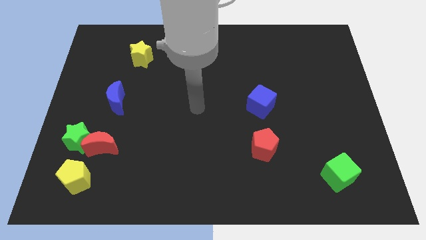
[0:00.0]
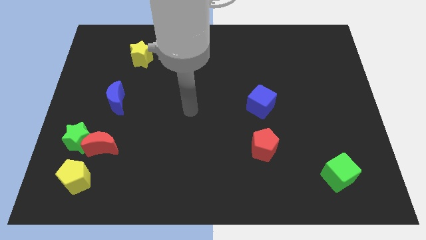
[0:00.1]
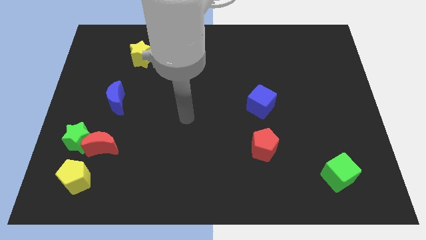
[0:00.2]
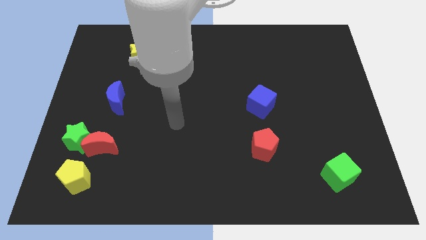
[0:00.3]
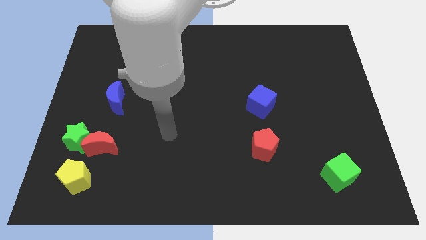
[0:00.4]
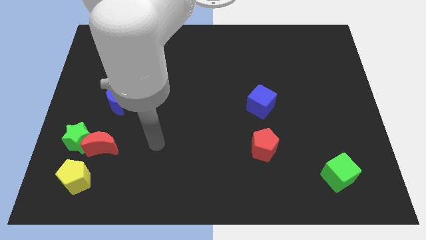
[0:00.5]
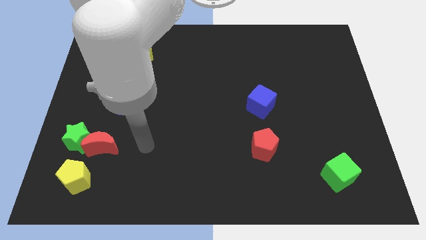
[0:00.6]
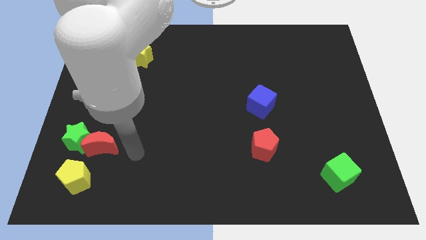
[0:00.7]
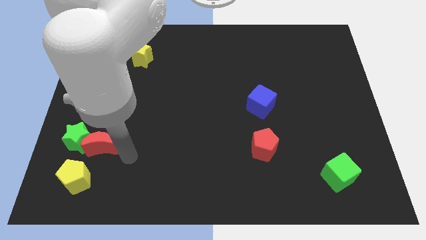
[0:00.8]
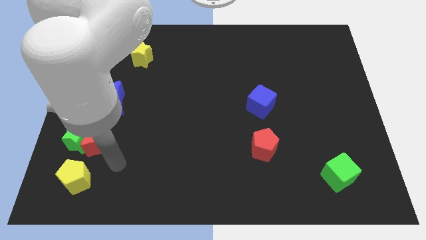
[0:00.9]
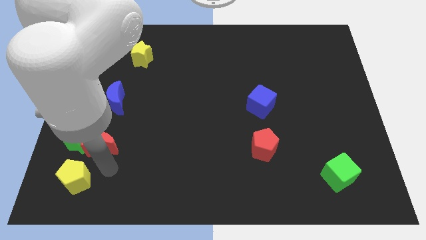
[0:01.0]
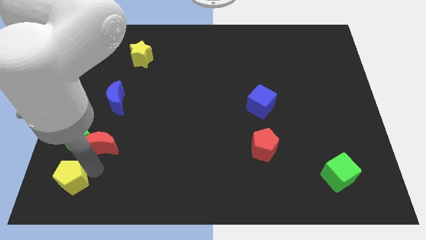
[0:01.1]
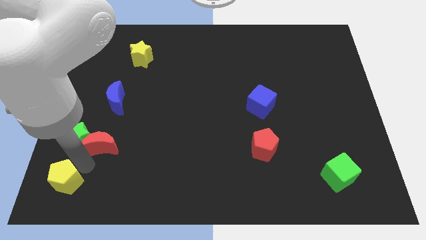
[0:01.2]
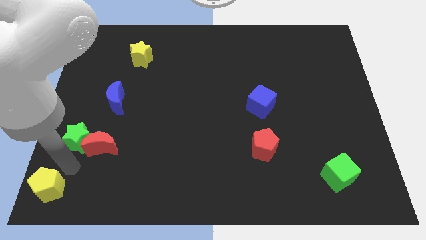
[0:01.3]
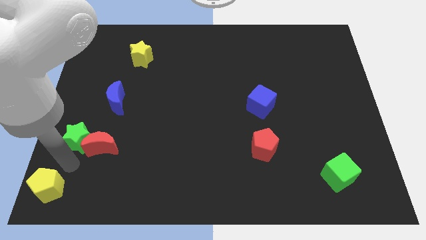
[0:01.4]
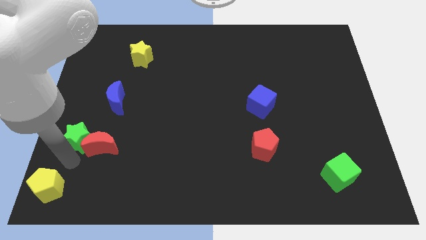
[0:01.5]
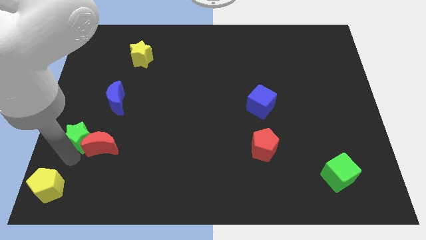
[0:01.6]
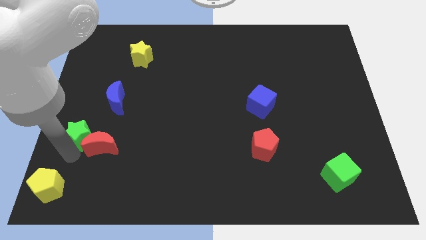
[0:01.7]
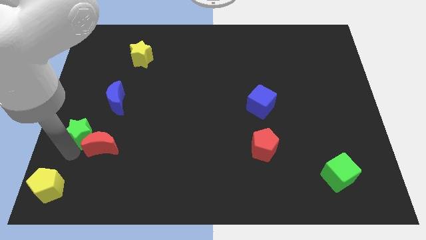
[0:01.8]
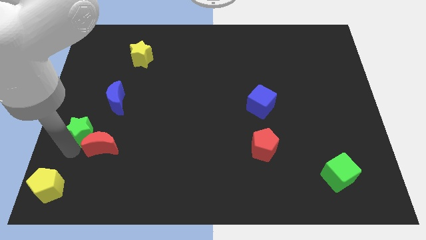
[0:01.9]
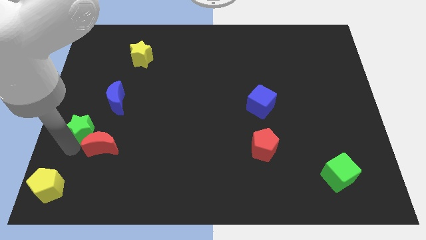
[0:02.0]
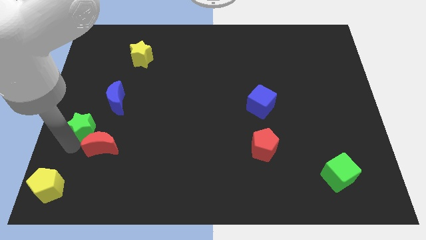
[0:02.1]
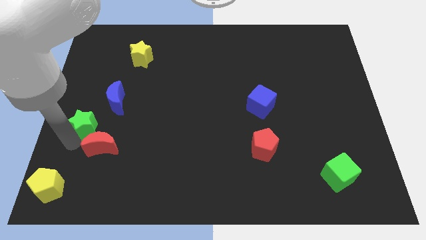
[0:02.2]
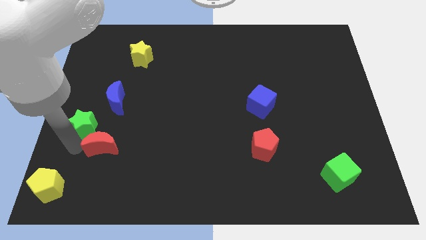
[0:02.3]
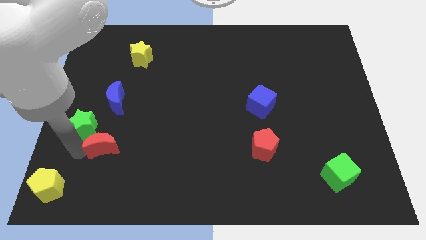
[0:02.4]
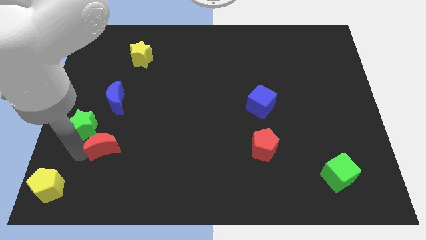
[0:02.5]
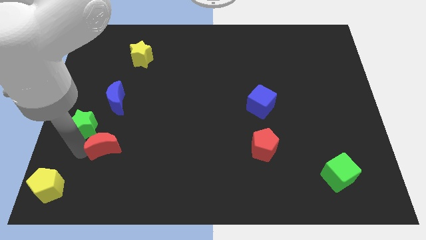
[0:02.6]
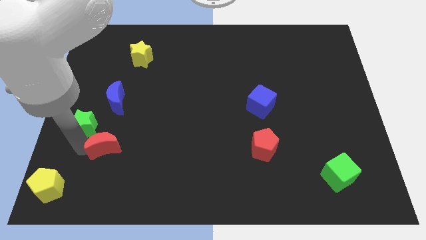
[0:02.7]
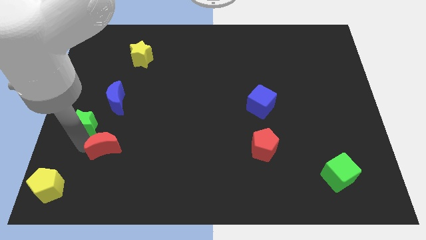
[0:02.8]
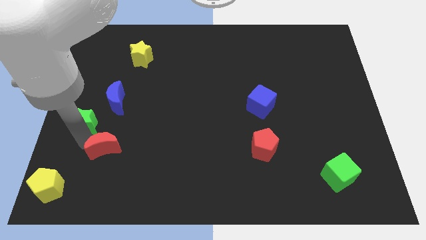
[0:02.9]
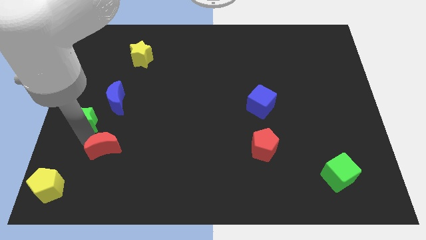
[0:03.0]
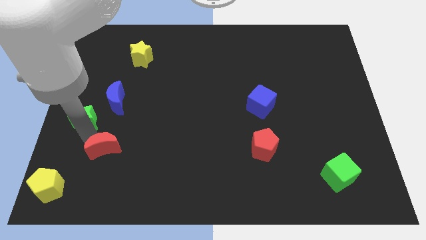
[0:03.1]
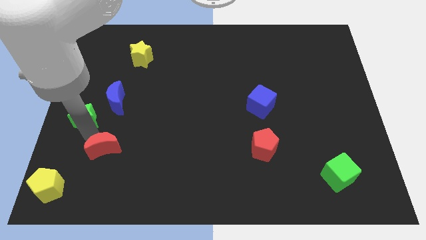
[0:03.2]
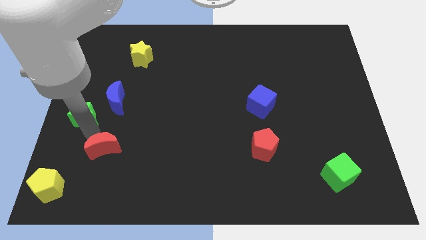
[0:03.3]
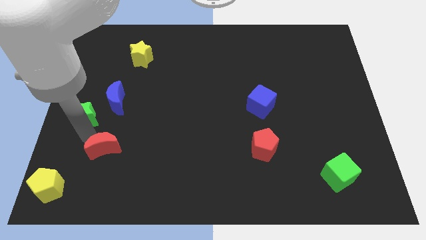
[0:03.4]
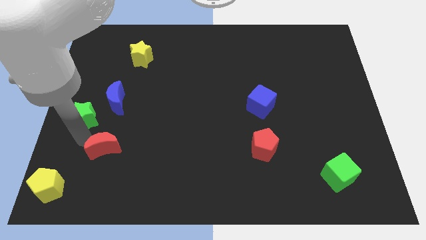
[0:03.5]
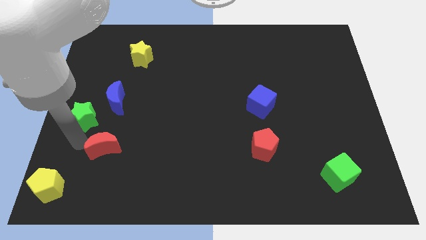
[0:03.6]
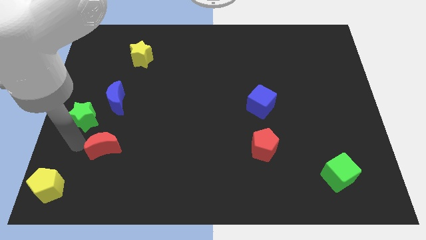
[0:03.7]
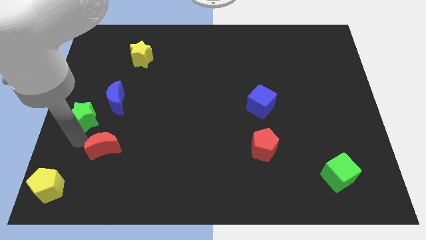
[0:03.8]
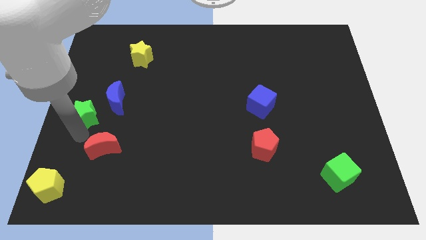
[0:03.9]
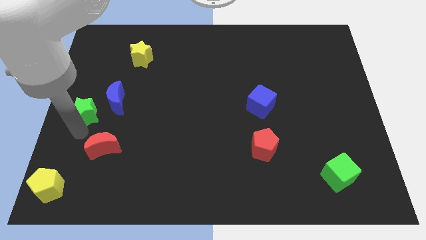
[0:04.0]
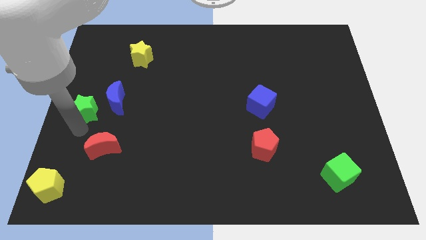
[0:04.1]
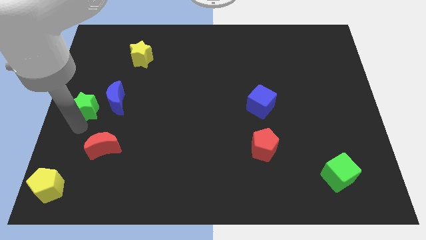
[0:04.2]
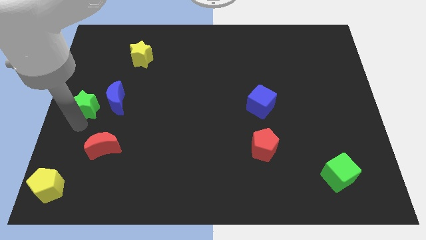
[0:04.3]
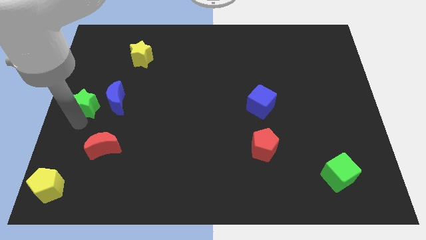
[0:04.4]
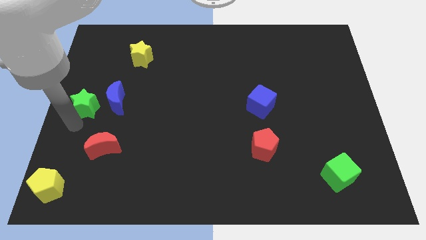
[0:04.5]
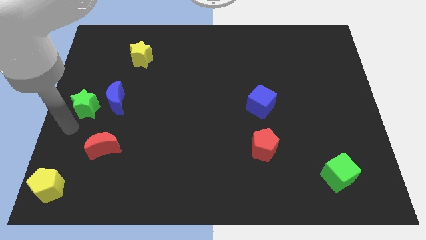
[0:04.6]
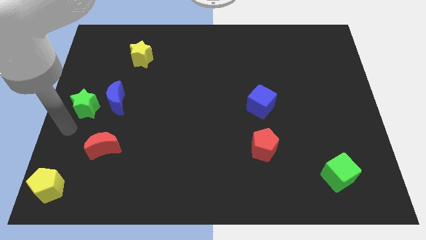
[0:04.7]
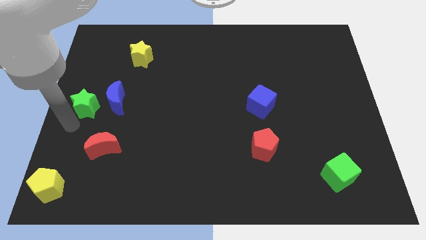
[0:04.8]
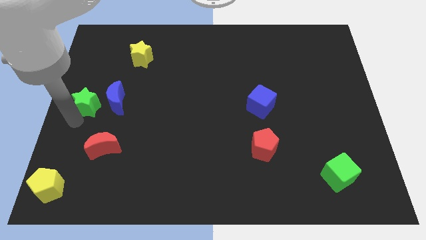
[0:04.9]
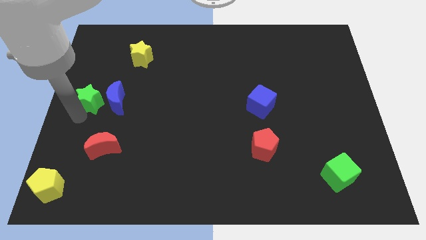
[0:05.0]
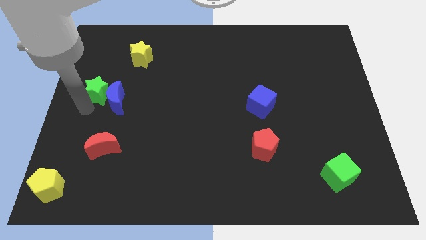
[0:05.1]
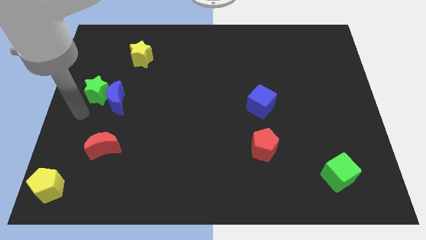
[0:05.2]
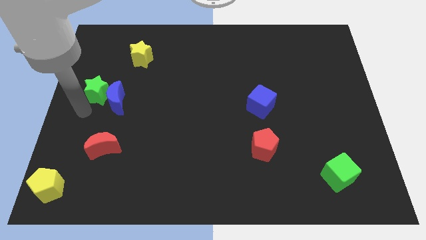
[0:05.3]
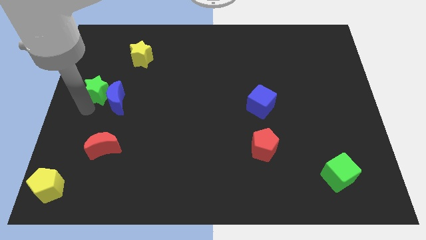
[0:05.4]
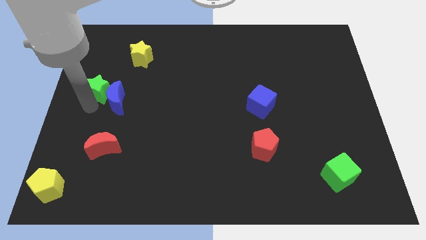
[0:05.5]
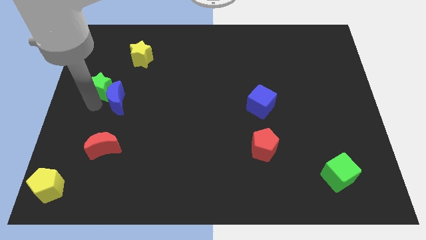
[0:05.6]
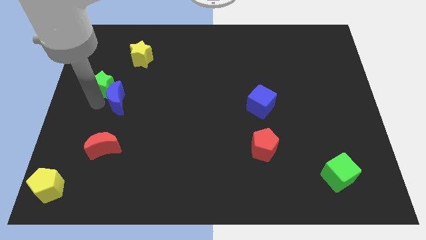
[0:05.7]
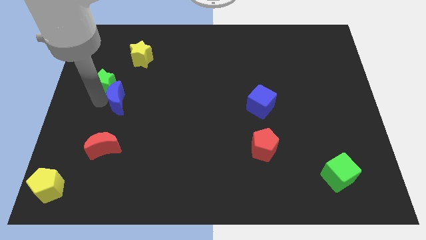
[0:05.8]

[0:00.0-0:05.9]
slide the green star to the bottom left side of the yellow star

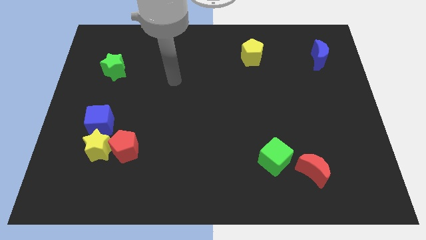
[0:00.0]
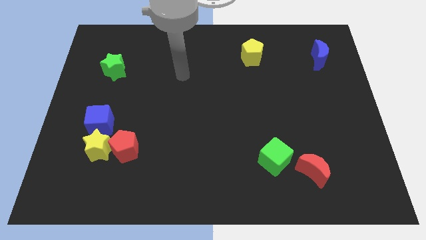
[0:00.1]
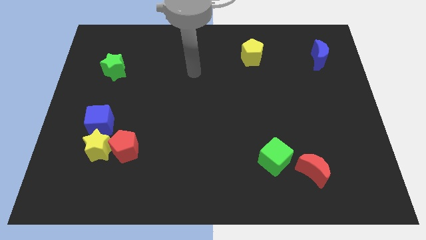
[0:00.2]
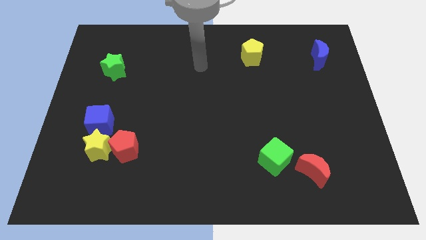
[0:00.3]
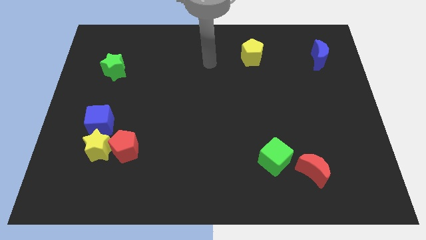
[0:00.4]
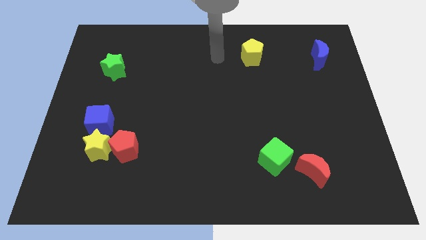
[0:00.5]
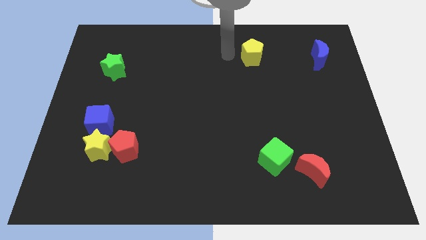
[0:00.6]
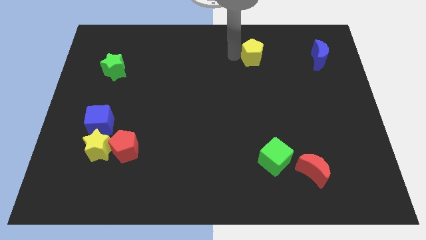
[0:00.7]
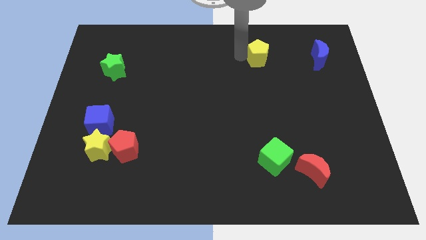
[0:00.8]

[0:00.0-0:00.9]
put the yellow pentagon just left of the blue moon

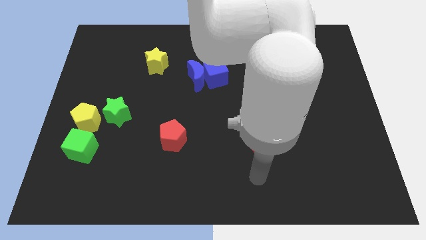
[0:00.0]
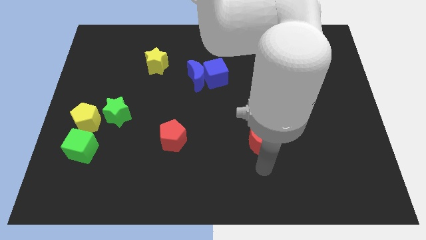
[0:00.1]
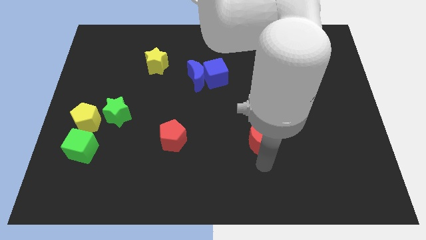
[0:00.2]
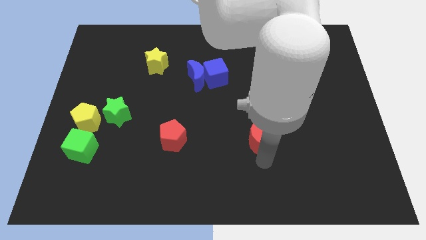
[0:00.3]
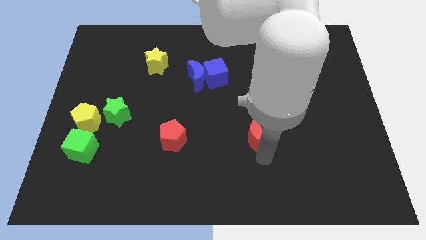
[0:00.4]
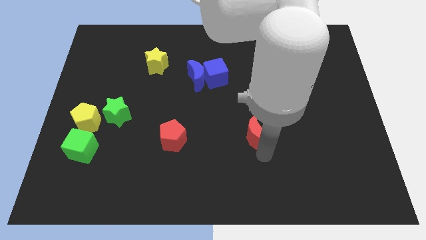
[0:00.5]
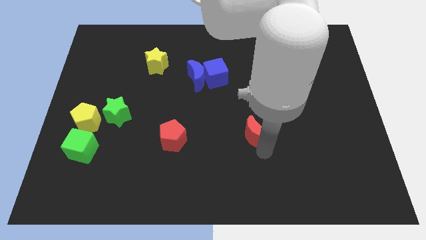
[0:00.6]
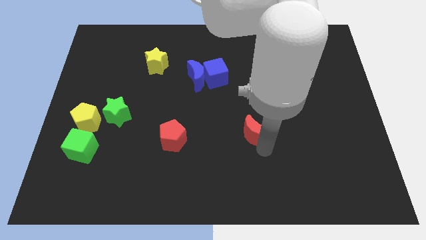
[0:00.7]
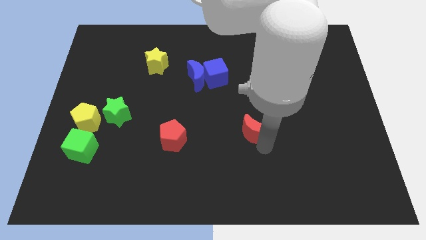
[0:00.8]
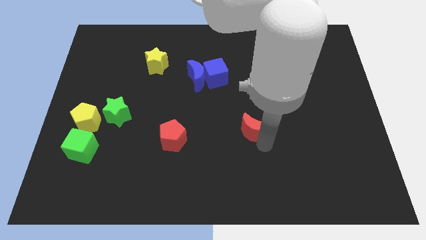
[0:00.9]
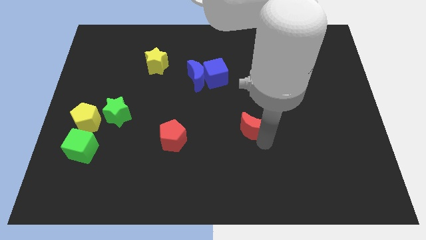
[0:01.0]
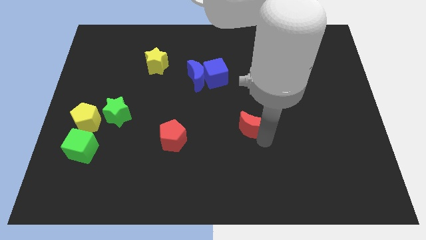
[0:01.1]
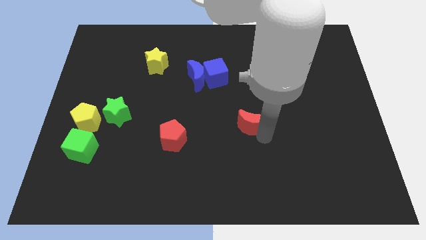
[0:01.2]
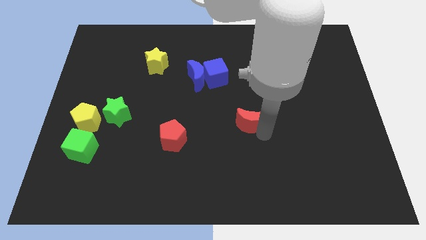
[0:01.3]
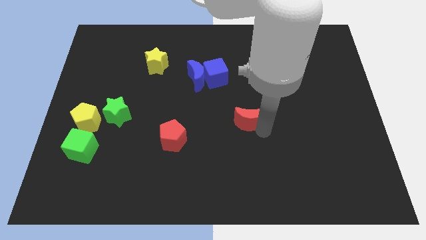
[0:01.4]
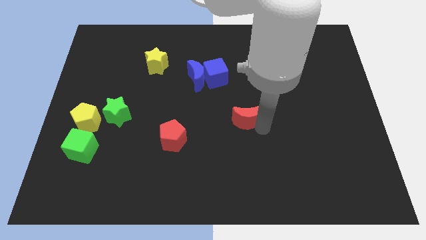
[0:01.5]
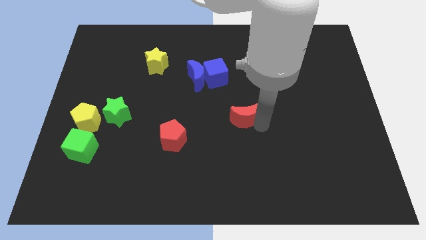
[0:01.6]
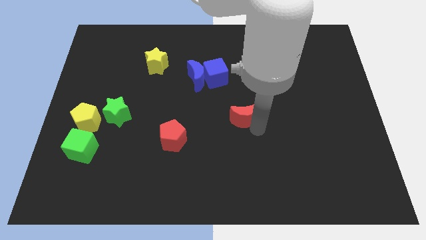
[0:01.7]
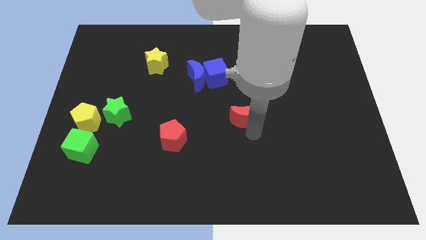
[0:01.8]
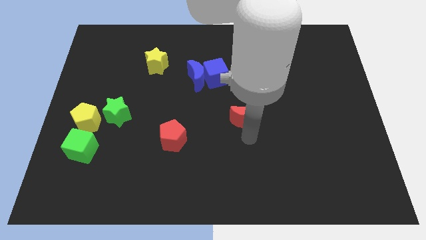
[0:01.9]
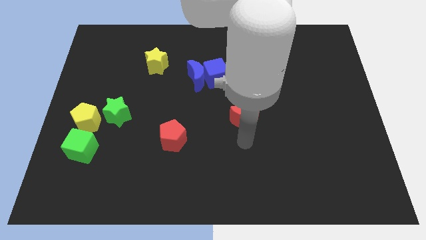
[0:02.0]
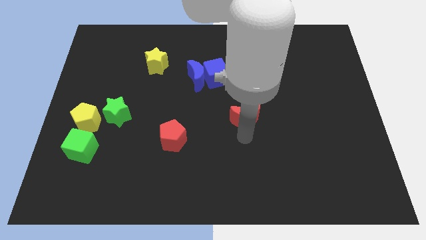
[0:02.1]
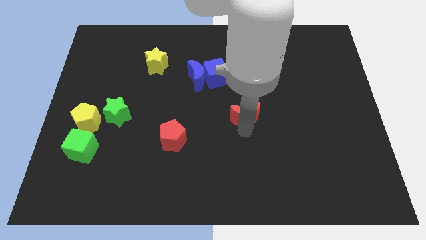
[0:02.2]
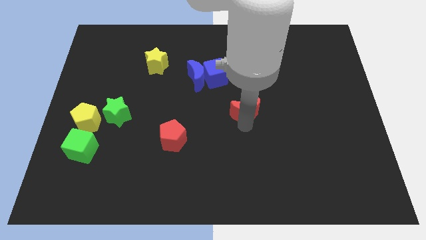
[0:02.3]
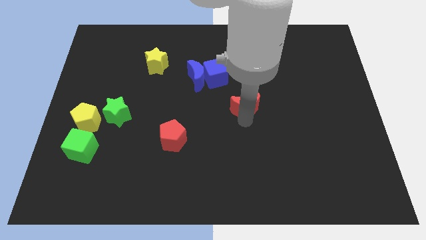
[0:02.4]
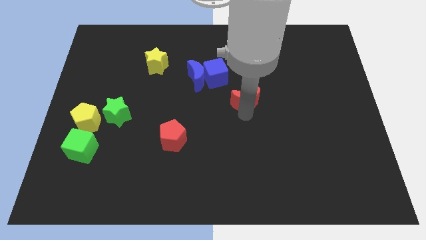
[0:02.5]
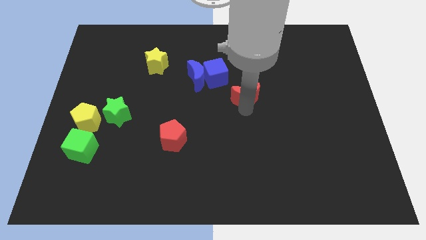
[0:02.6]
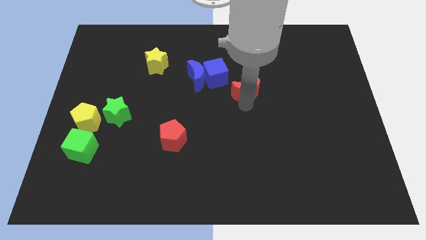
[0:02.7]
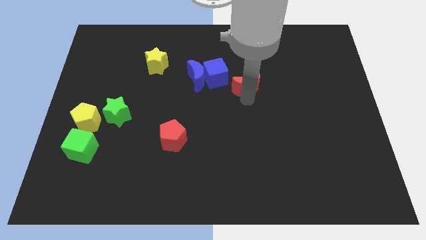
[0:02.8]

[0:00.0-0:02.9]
slide the red moon just right of the blue moon
